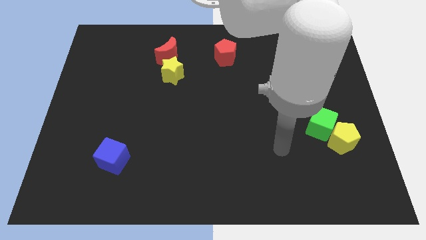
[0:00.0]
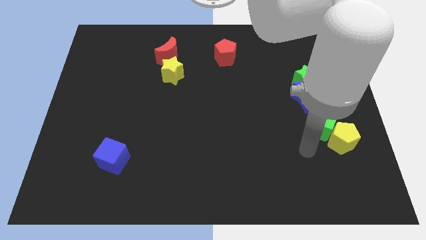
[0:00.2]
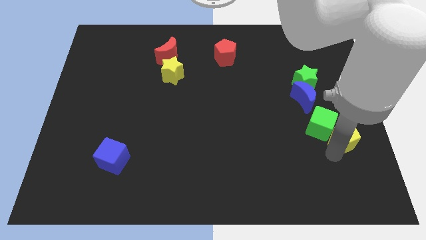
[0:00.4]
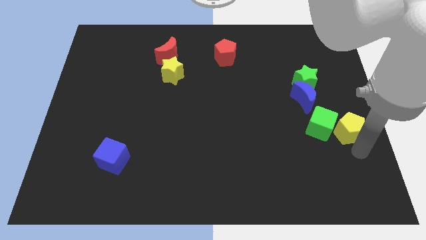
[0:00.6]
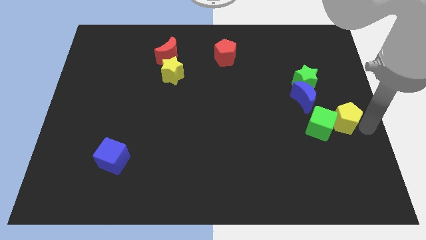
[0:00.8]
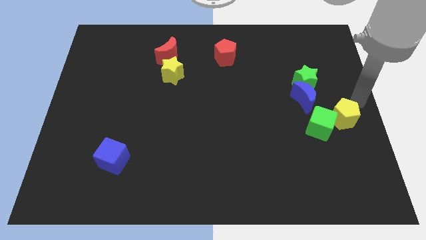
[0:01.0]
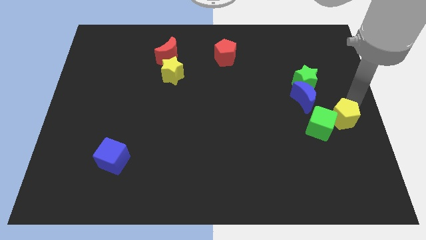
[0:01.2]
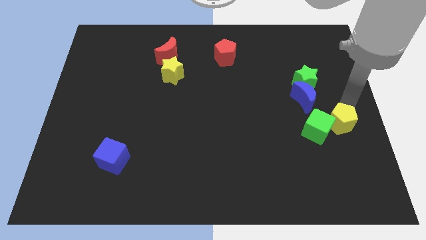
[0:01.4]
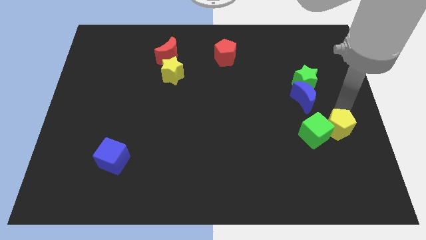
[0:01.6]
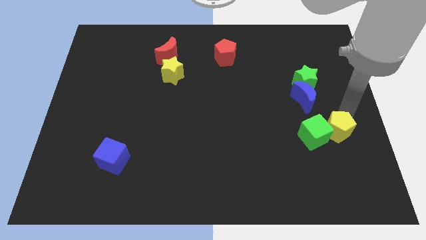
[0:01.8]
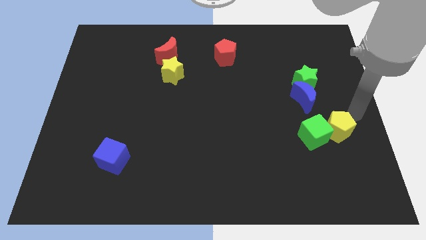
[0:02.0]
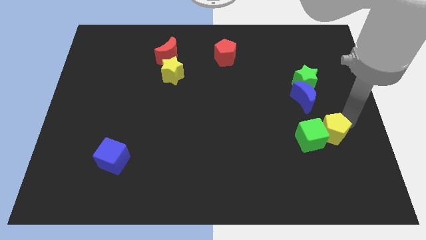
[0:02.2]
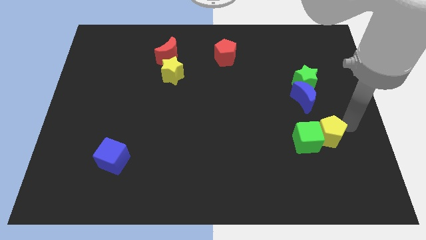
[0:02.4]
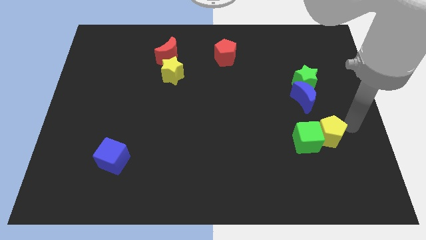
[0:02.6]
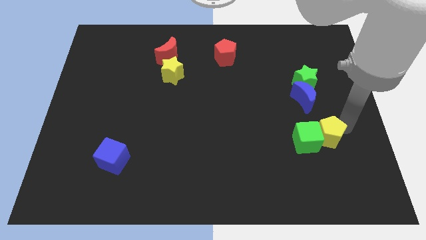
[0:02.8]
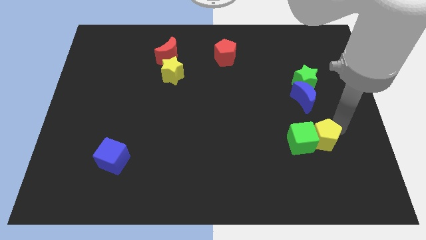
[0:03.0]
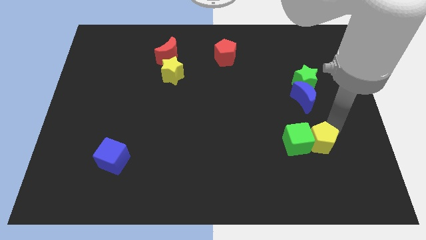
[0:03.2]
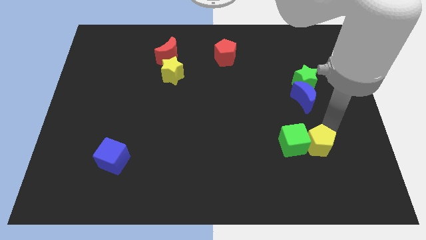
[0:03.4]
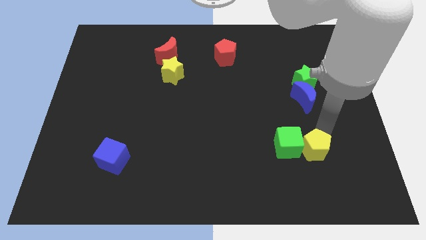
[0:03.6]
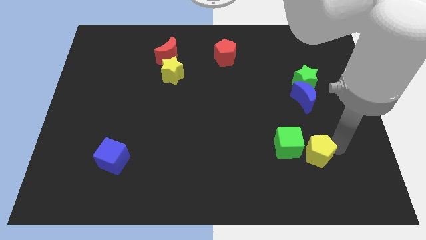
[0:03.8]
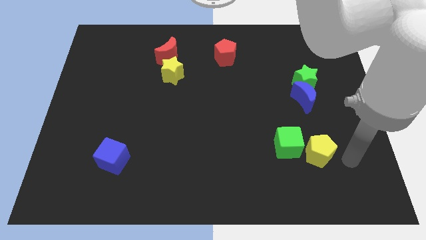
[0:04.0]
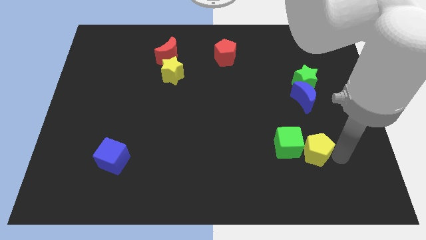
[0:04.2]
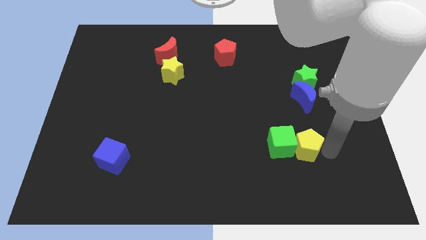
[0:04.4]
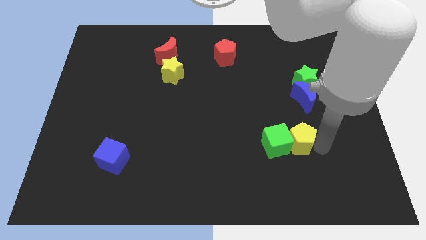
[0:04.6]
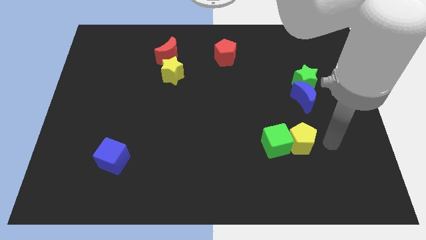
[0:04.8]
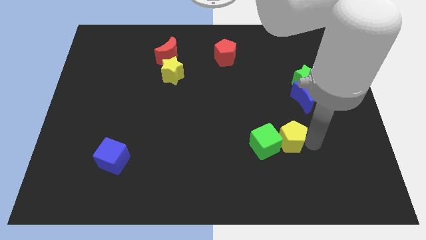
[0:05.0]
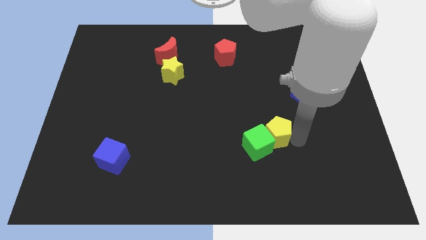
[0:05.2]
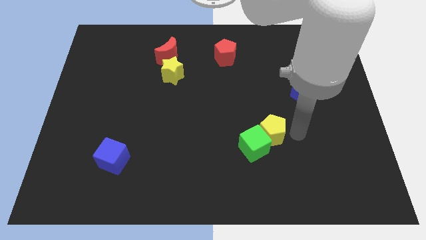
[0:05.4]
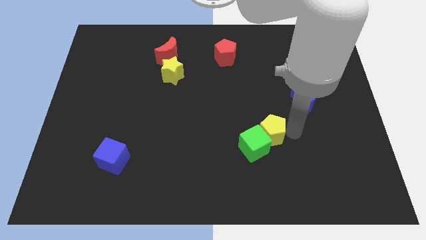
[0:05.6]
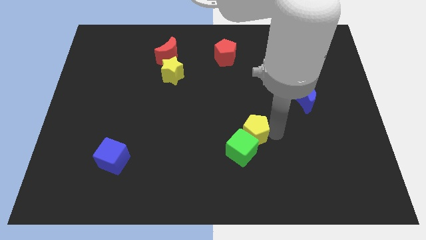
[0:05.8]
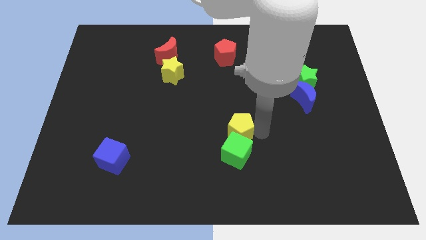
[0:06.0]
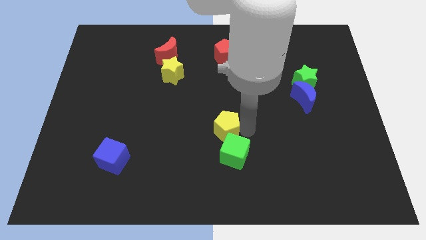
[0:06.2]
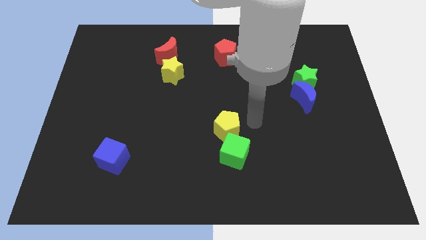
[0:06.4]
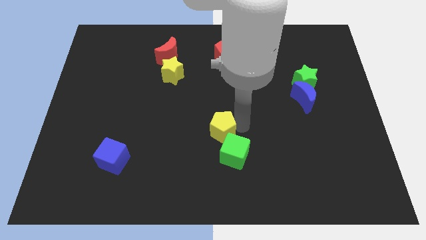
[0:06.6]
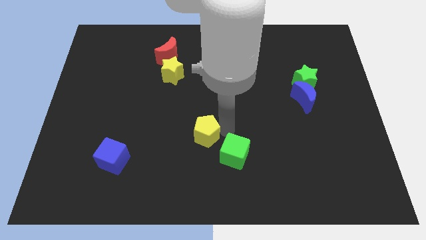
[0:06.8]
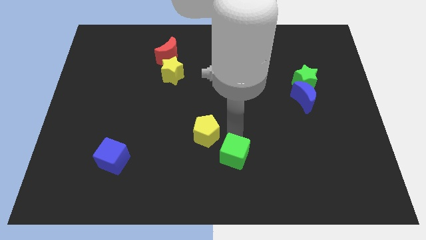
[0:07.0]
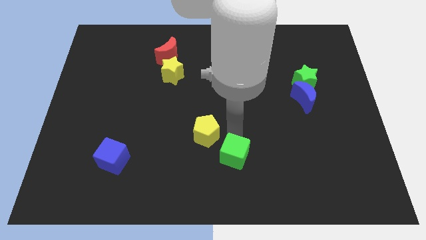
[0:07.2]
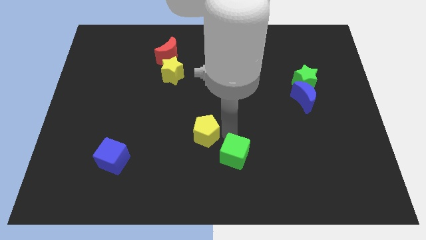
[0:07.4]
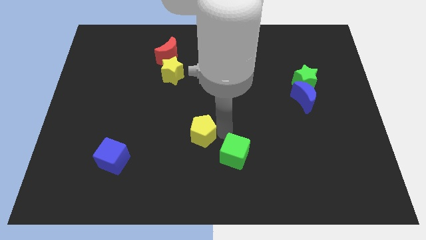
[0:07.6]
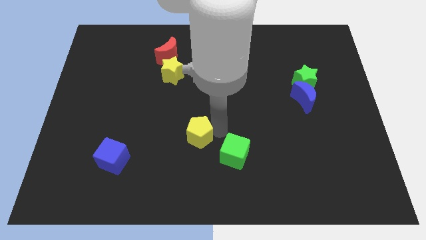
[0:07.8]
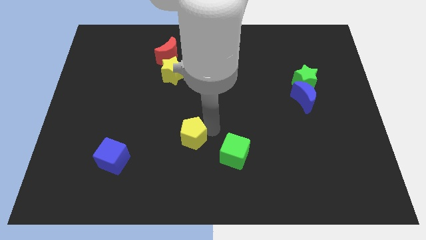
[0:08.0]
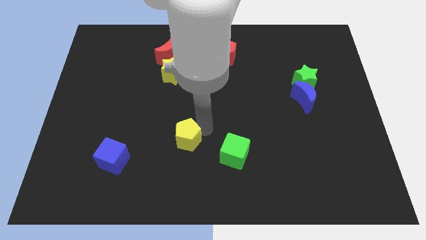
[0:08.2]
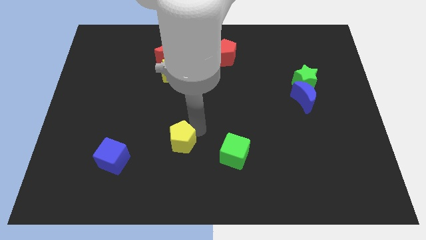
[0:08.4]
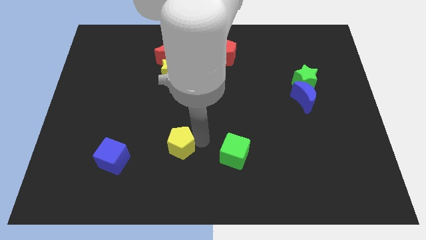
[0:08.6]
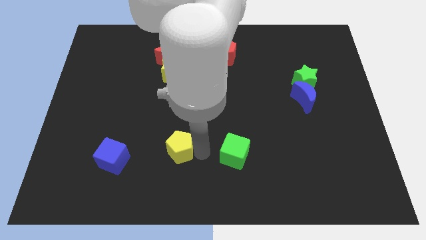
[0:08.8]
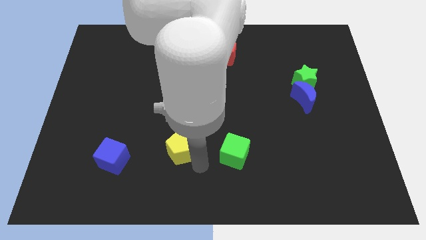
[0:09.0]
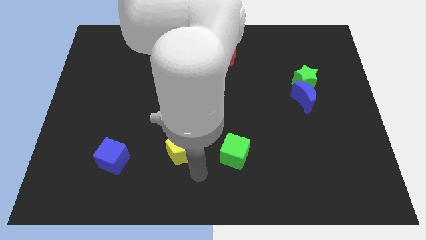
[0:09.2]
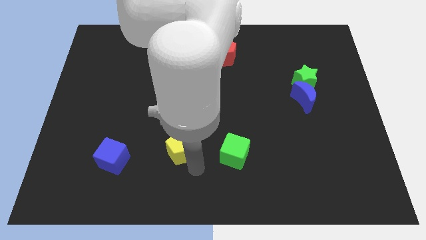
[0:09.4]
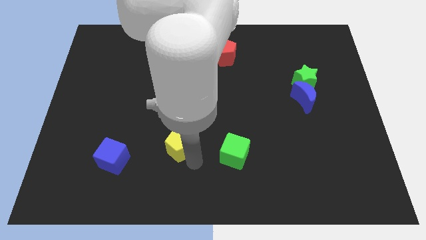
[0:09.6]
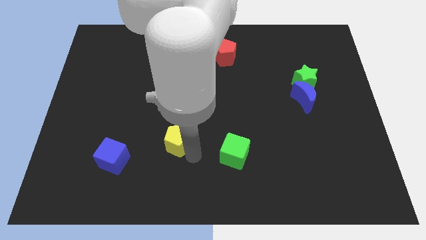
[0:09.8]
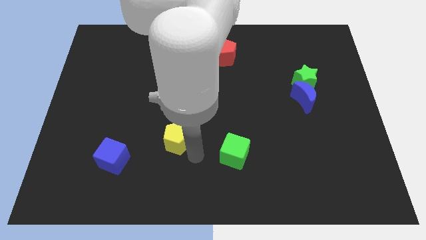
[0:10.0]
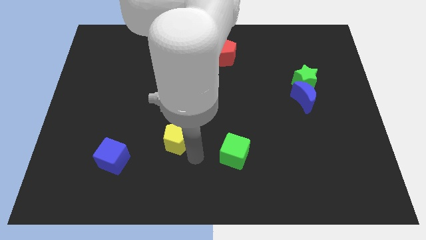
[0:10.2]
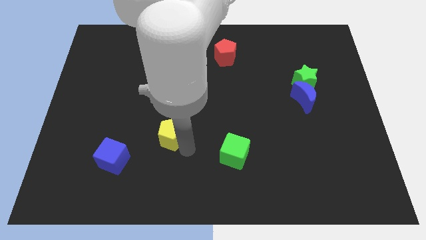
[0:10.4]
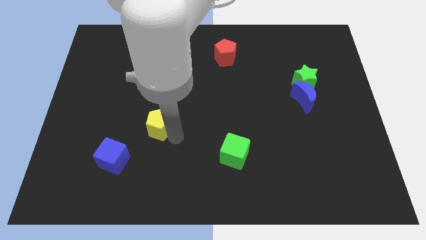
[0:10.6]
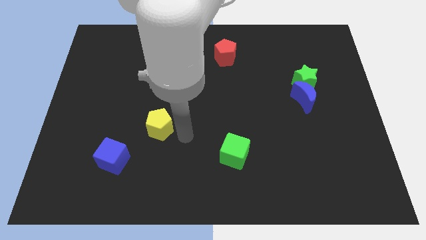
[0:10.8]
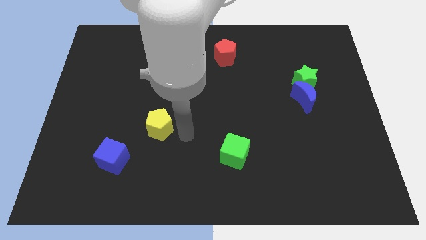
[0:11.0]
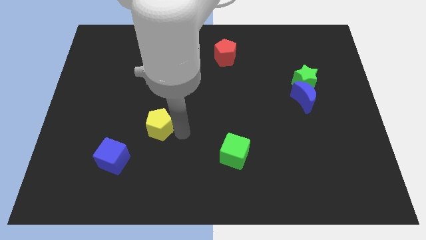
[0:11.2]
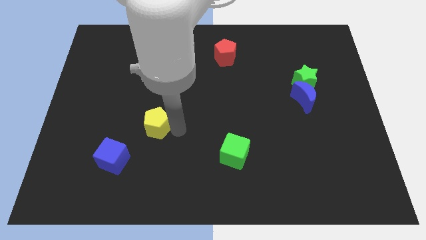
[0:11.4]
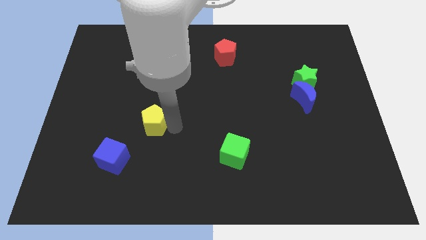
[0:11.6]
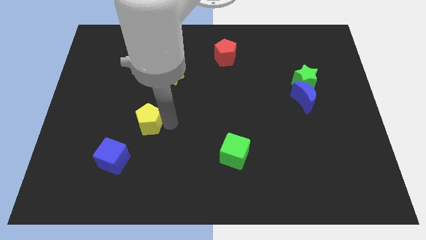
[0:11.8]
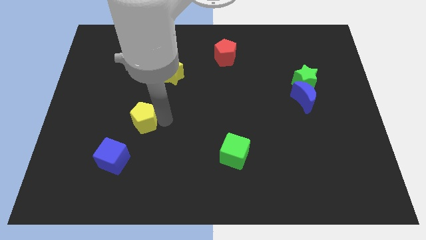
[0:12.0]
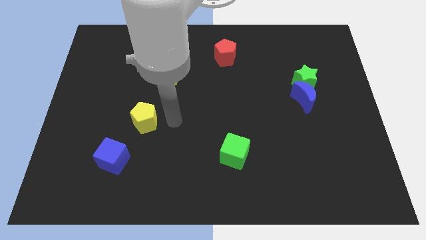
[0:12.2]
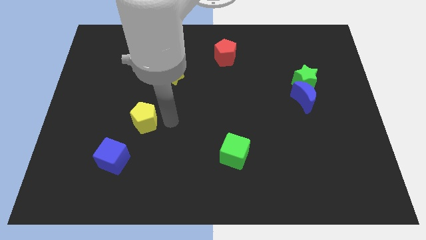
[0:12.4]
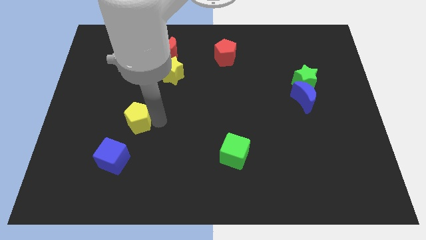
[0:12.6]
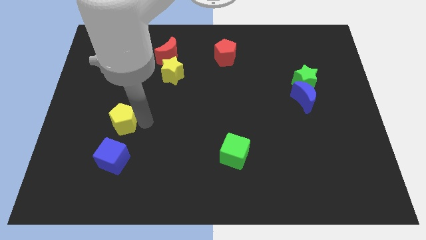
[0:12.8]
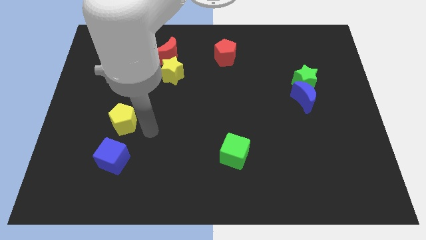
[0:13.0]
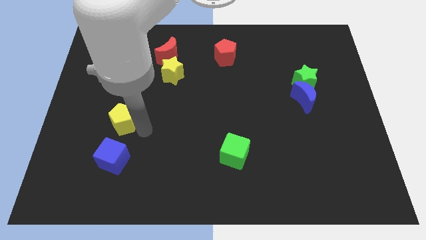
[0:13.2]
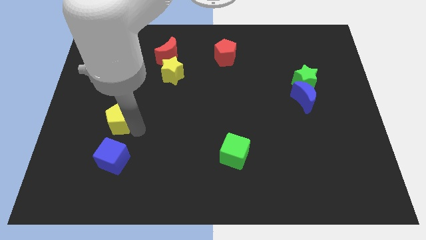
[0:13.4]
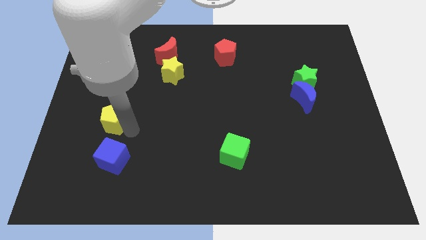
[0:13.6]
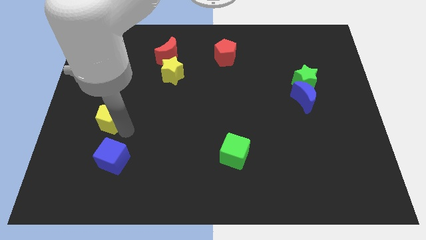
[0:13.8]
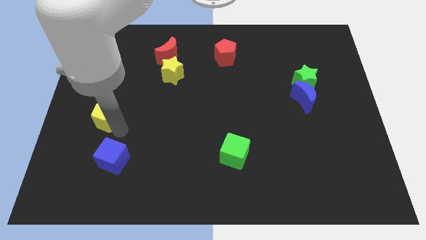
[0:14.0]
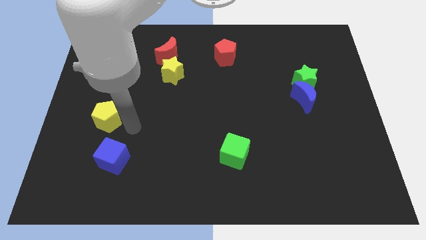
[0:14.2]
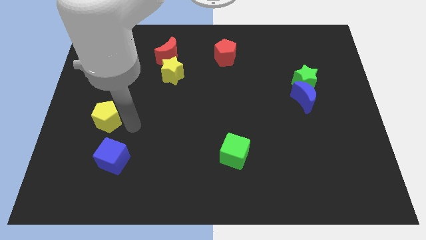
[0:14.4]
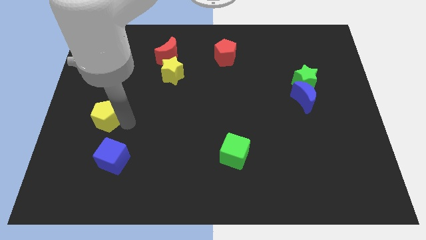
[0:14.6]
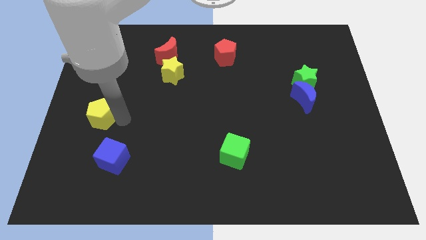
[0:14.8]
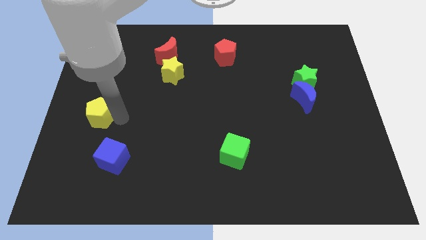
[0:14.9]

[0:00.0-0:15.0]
move the yellow pentagon to the center left

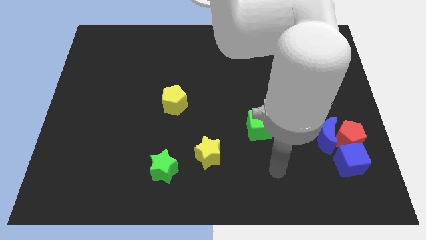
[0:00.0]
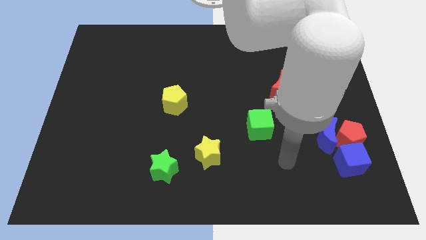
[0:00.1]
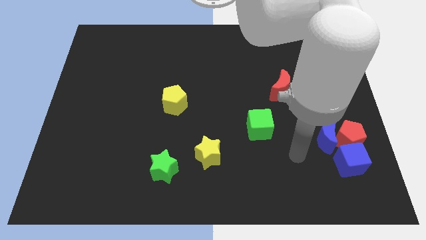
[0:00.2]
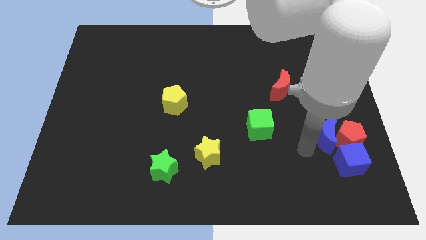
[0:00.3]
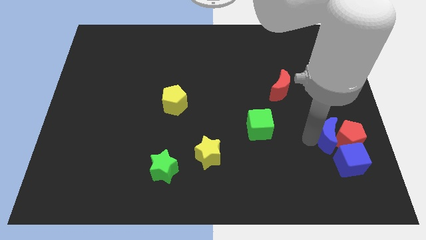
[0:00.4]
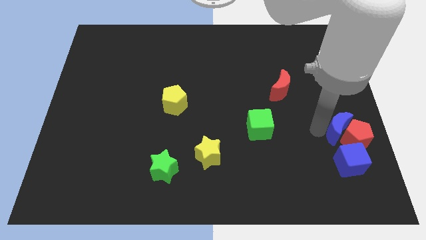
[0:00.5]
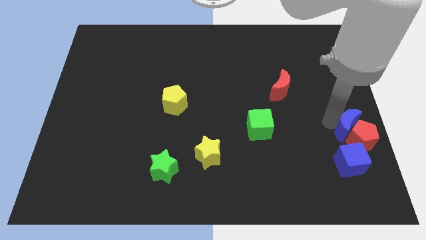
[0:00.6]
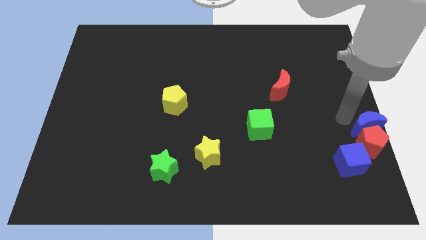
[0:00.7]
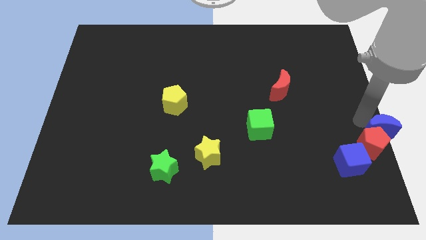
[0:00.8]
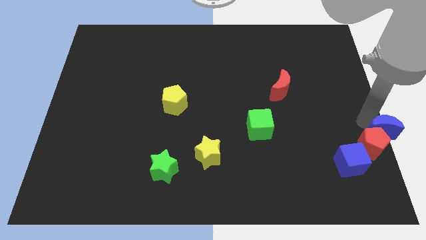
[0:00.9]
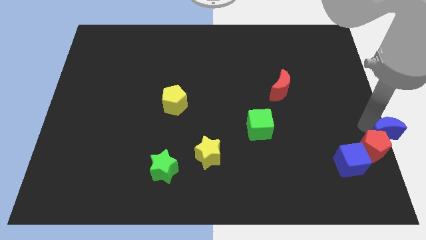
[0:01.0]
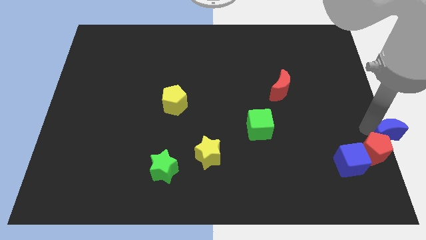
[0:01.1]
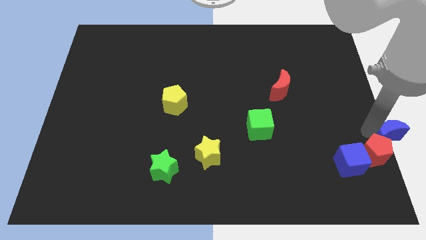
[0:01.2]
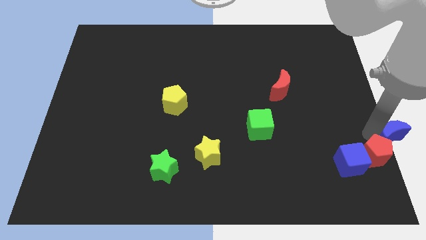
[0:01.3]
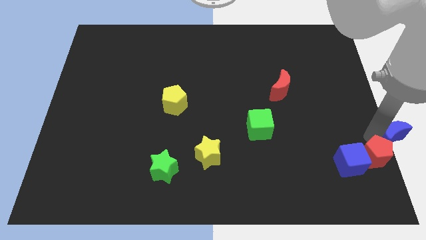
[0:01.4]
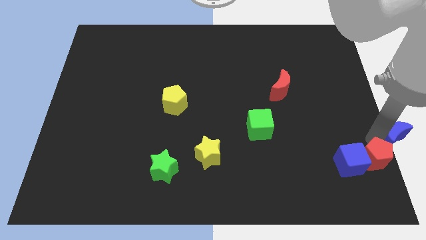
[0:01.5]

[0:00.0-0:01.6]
move the red pentagon to the lower right corner
